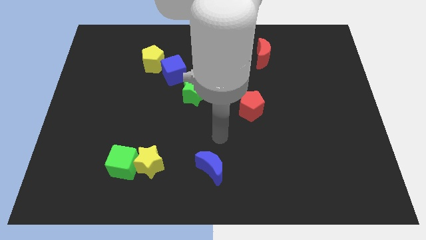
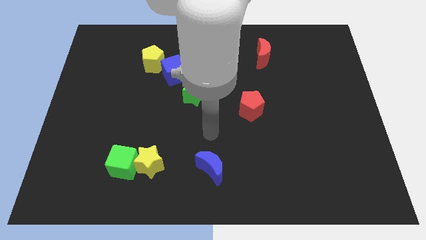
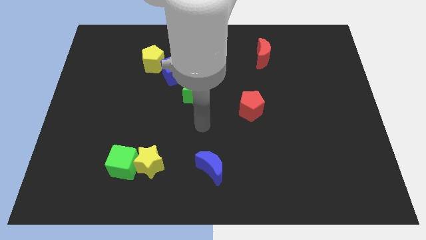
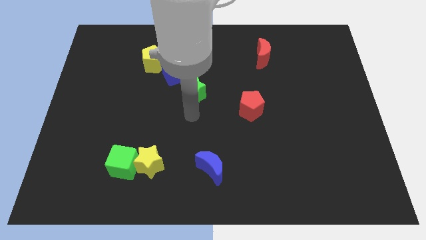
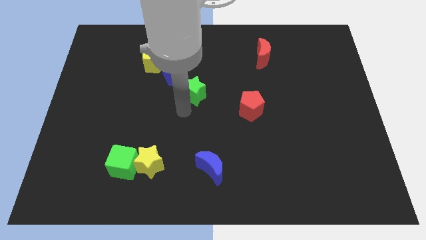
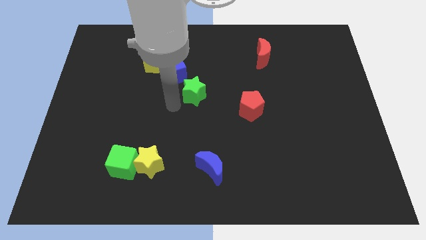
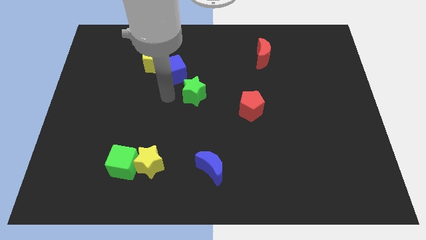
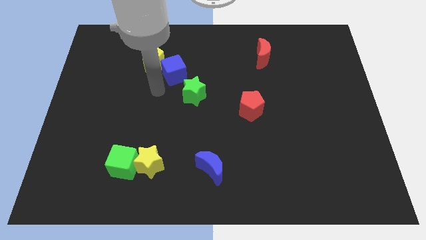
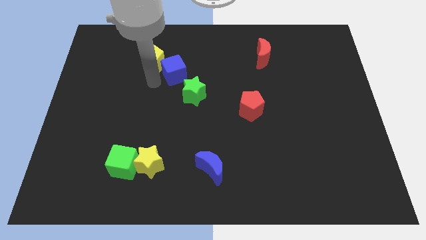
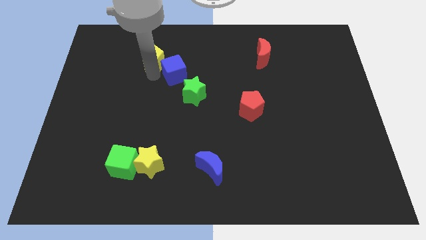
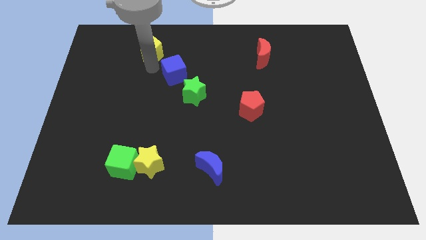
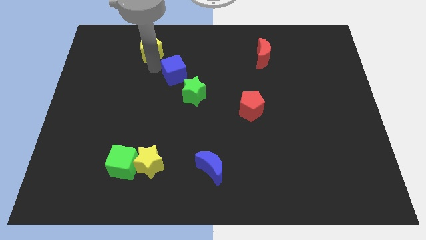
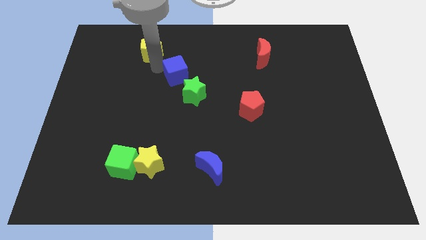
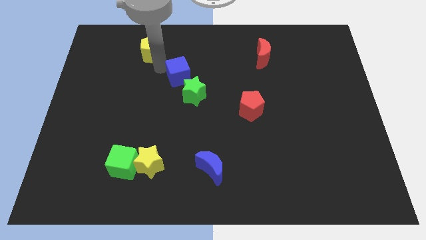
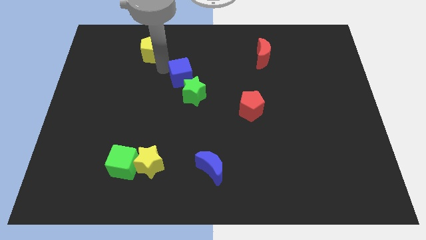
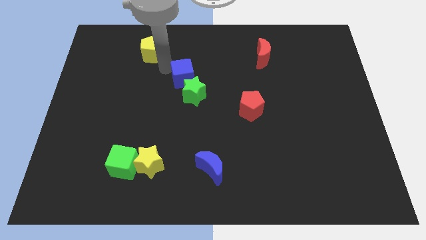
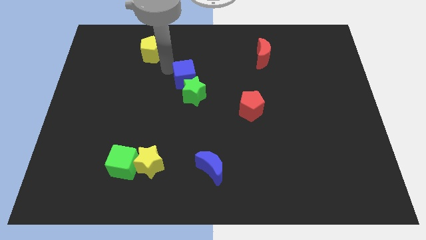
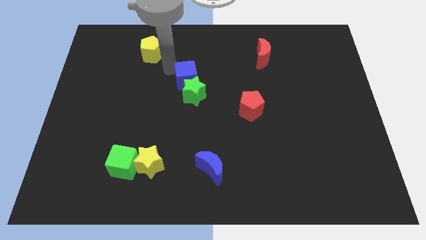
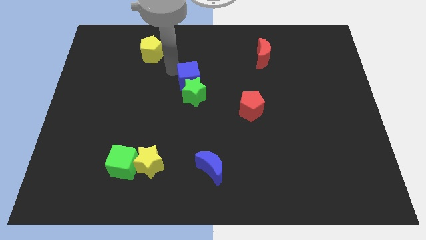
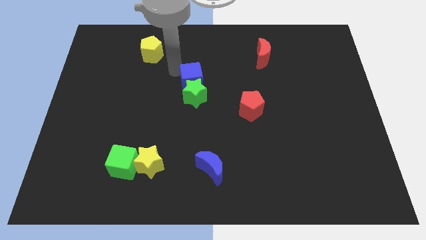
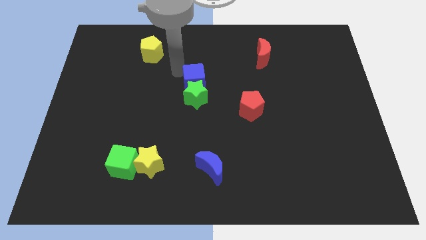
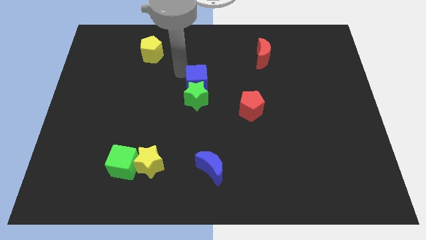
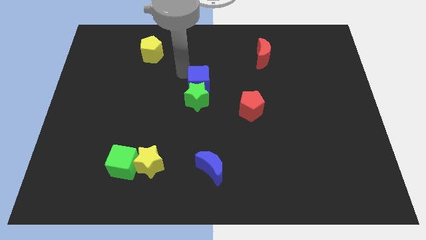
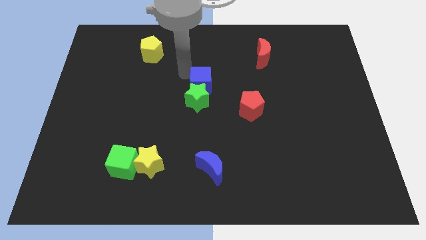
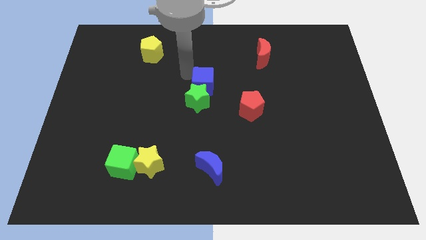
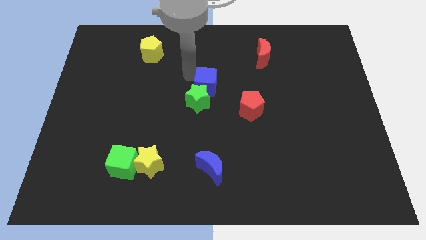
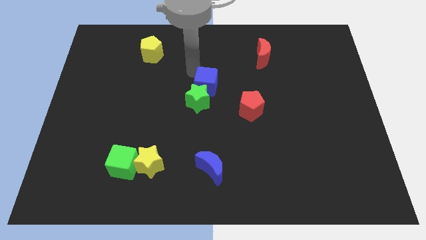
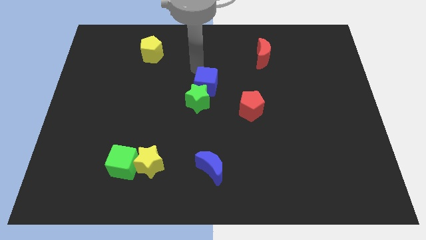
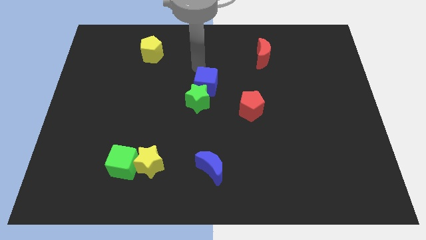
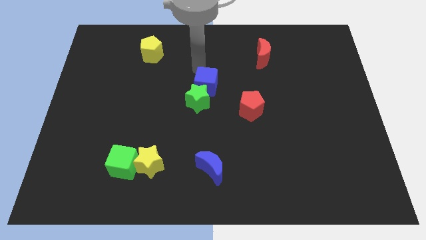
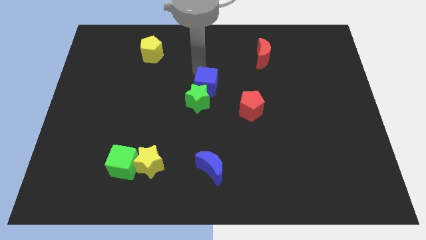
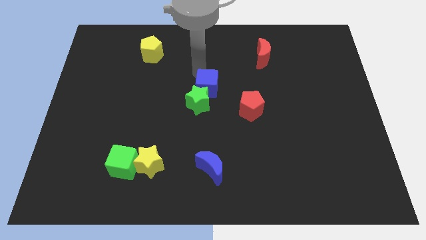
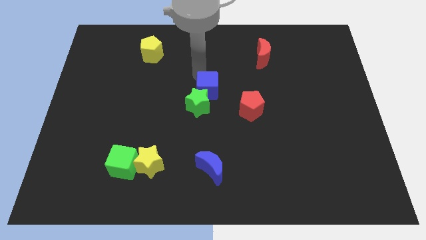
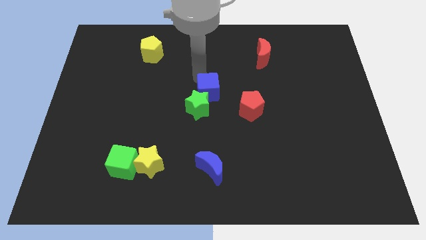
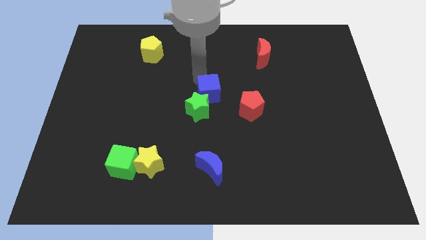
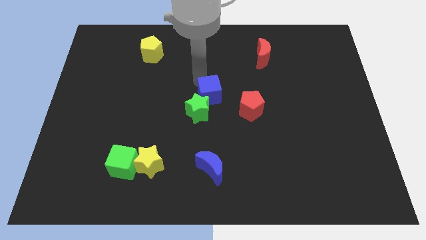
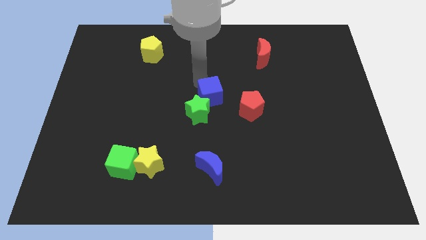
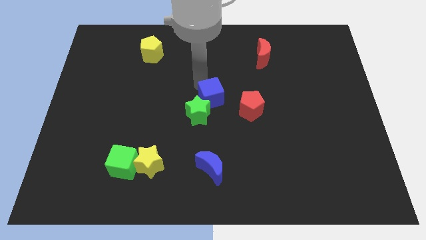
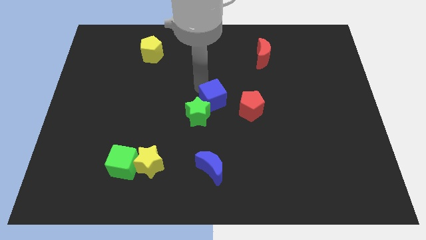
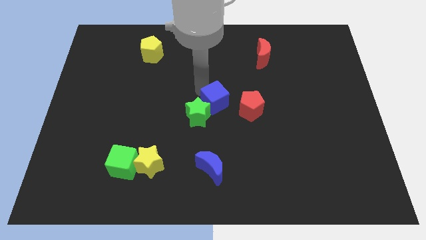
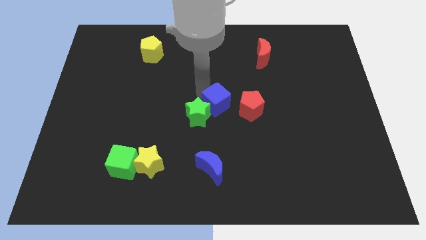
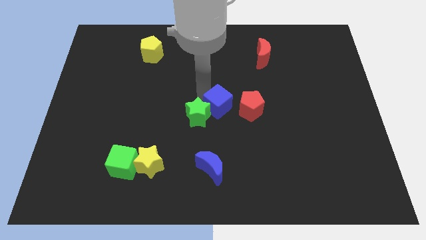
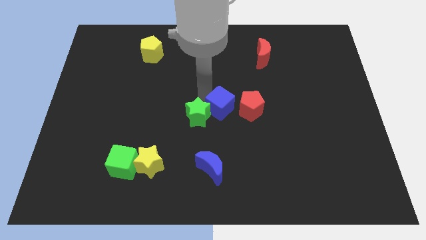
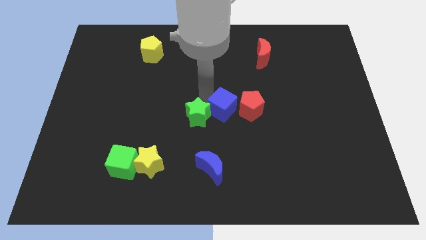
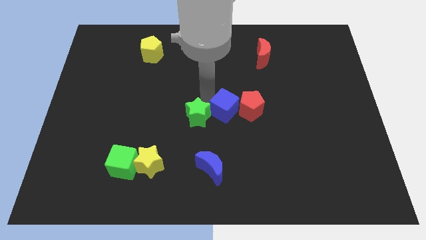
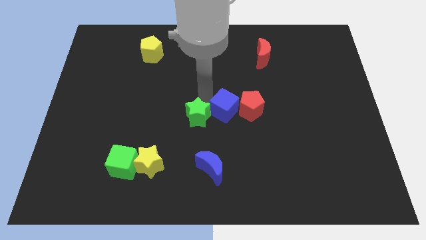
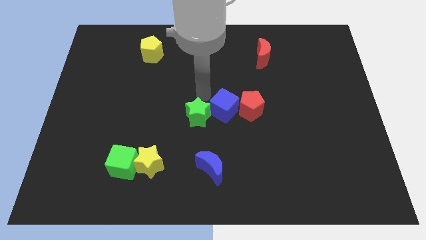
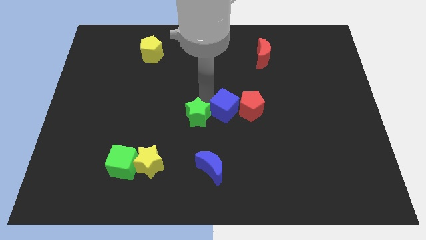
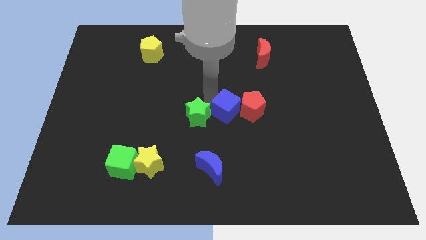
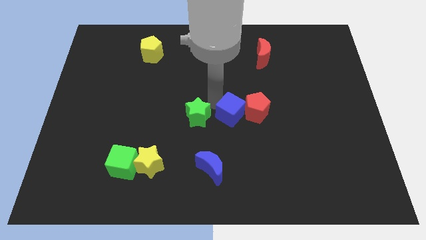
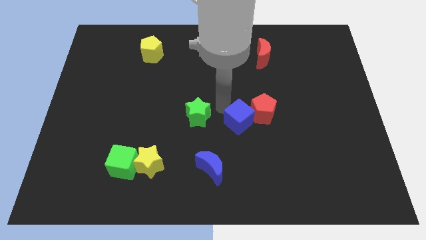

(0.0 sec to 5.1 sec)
slide the blue cube down and then right

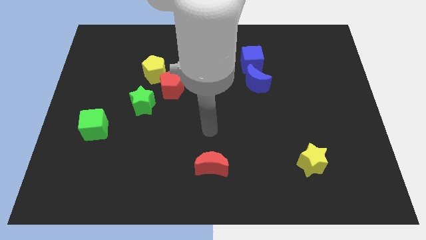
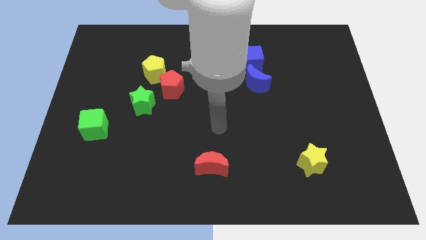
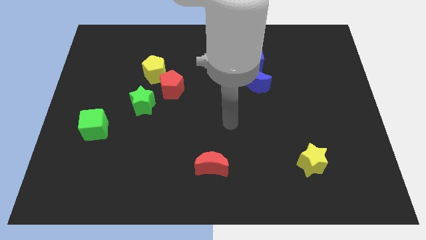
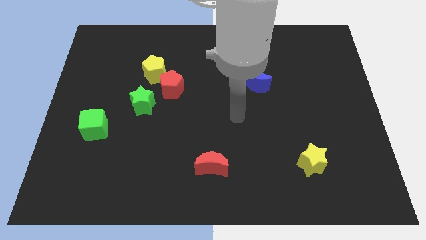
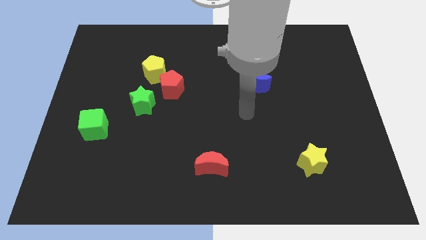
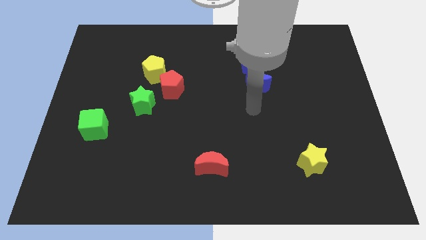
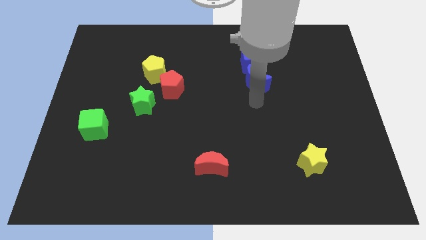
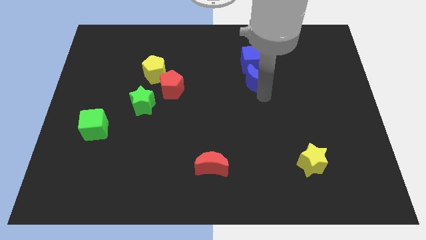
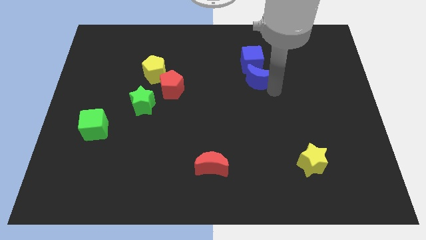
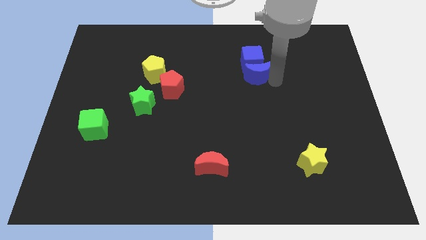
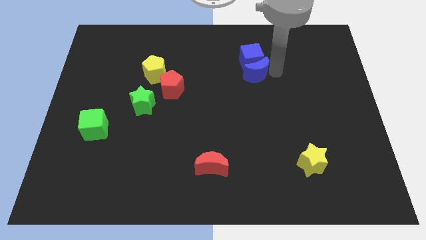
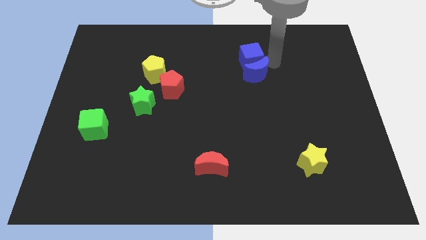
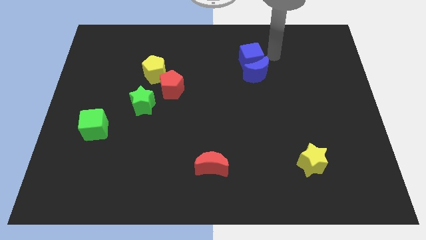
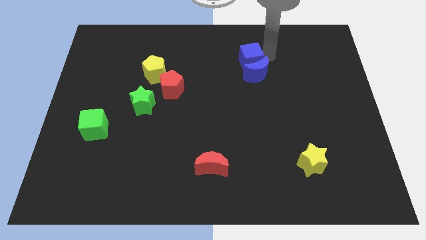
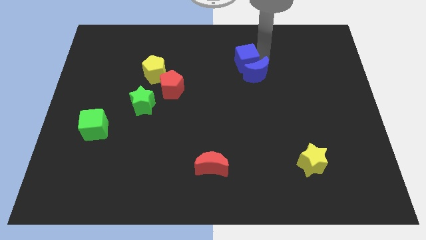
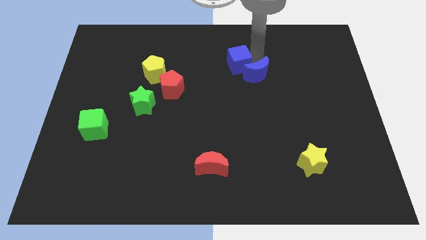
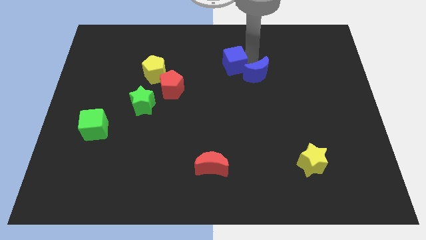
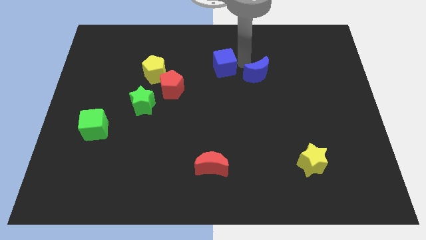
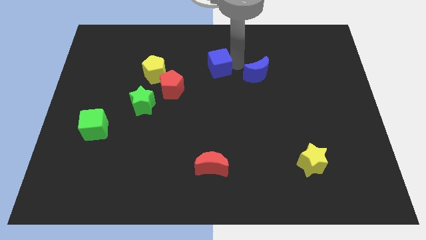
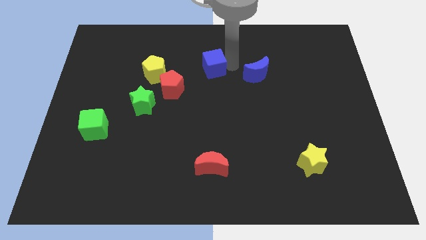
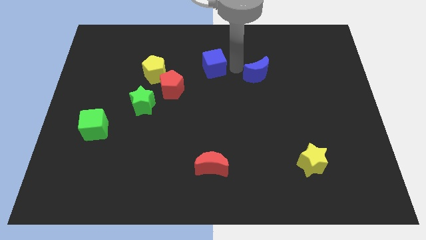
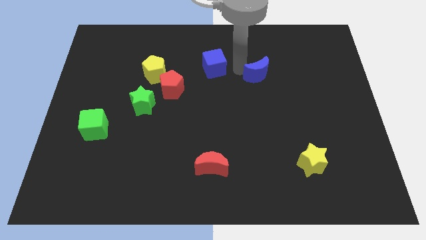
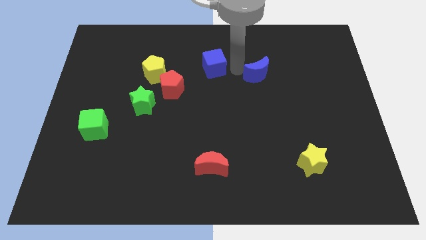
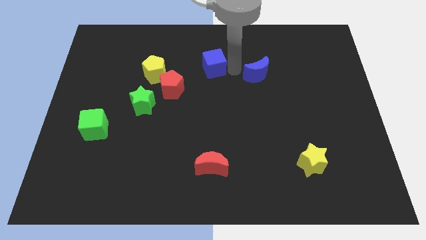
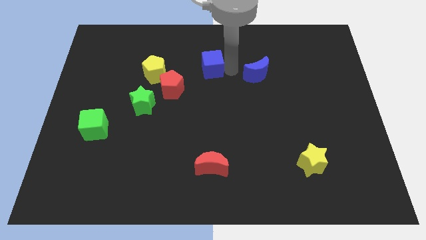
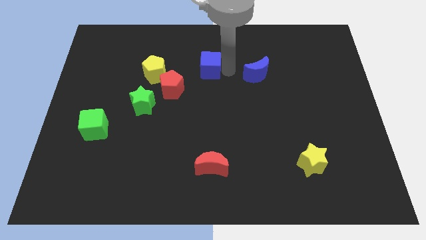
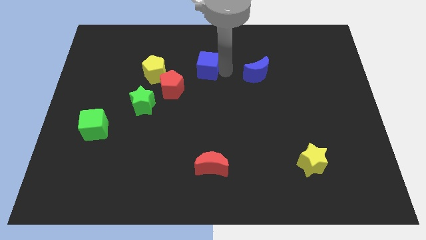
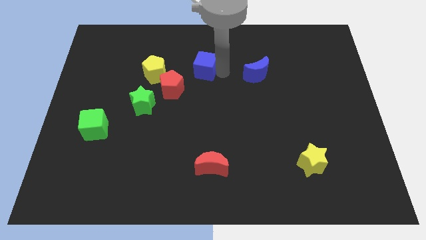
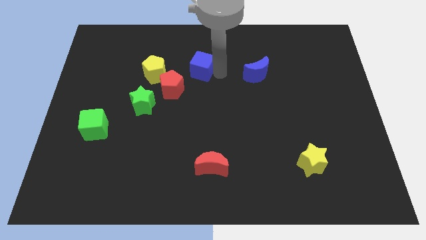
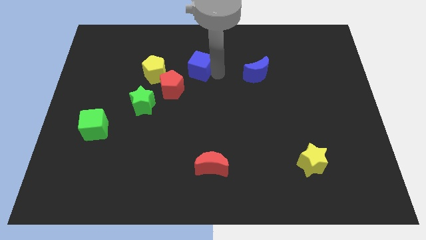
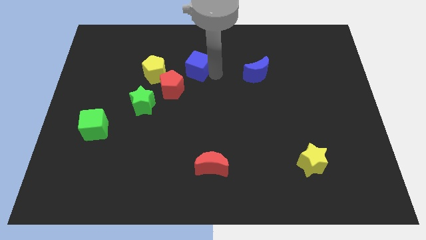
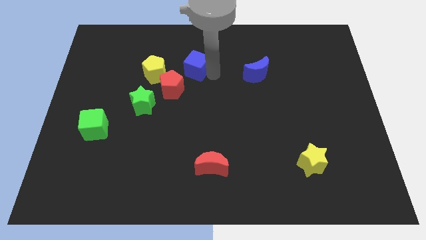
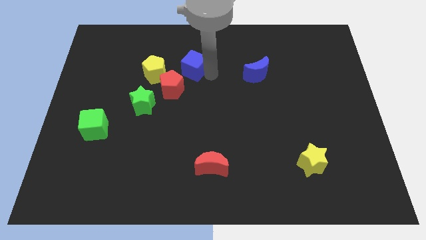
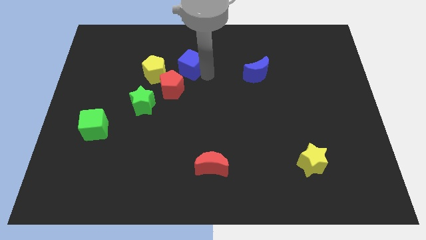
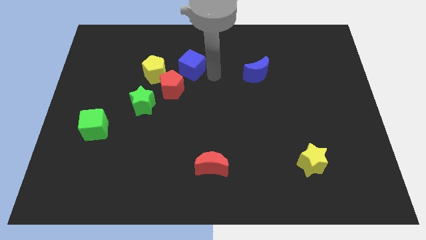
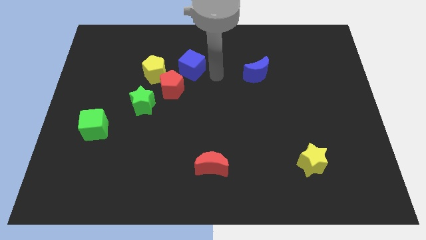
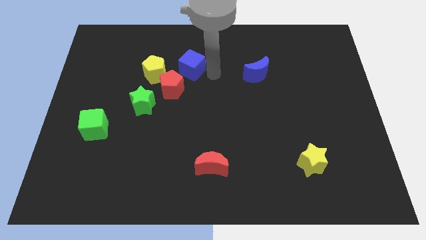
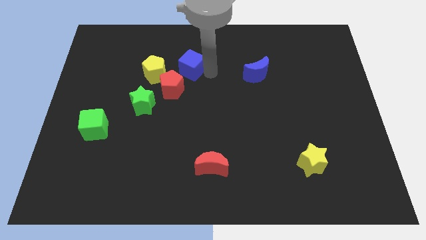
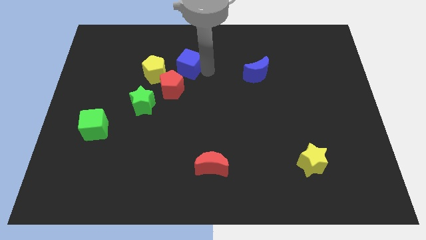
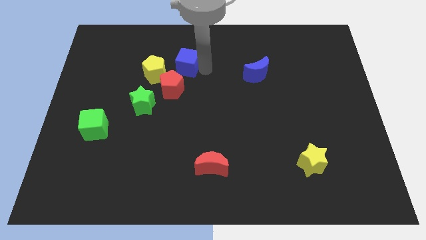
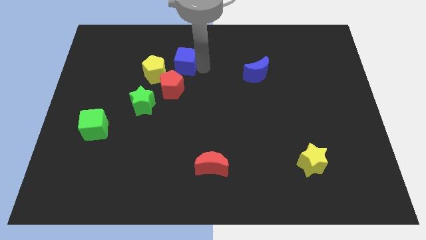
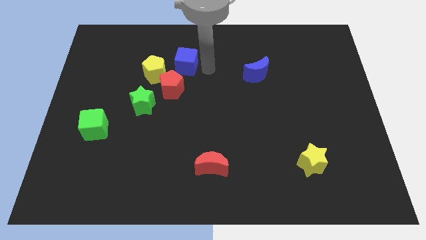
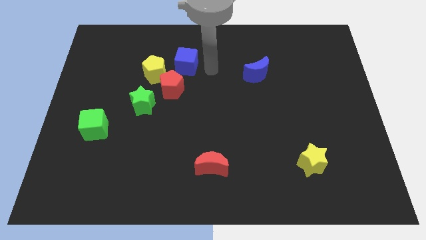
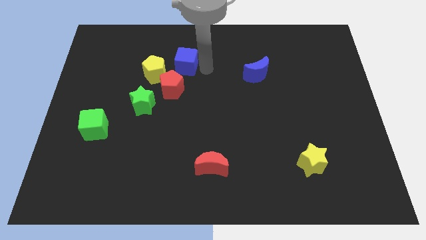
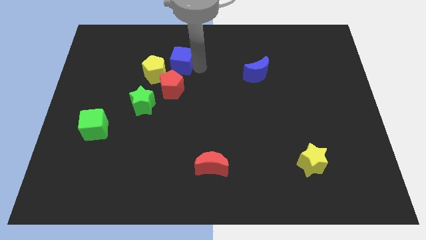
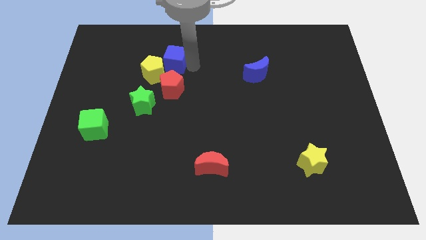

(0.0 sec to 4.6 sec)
push the blue cube left
